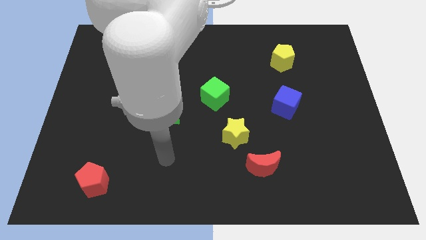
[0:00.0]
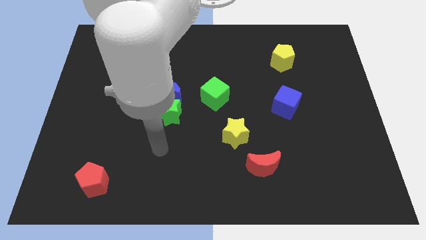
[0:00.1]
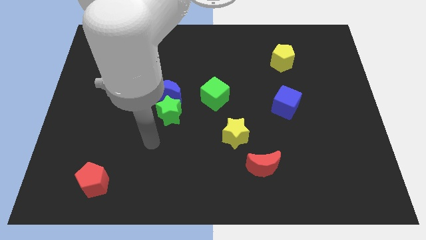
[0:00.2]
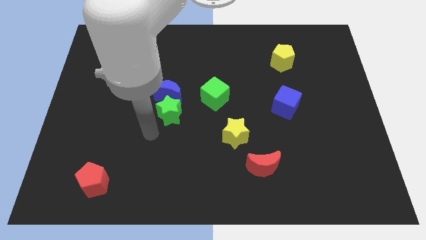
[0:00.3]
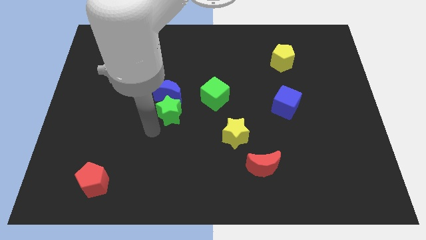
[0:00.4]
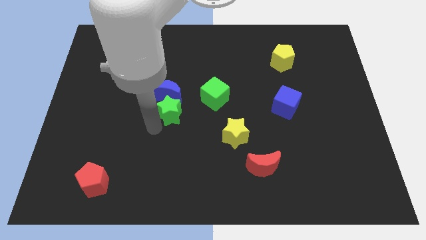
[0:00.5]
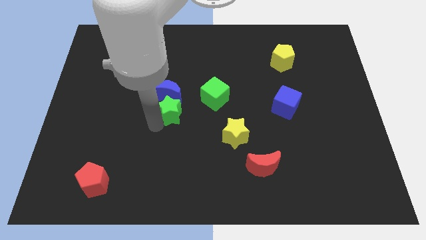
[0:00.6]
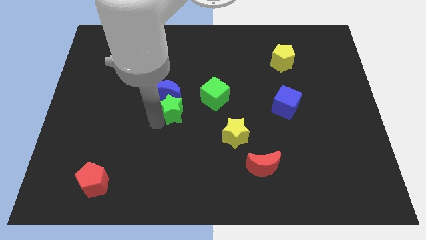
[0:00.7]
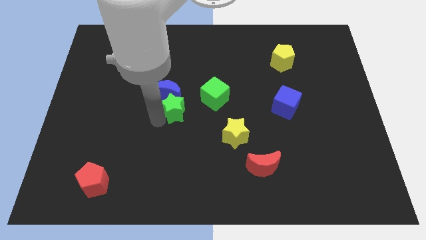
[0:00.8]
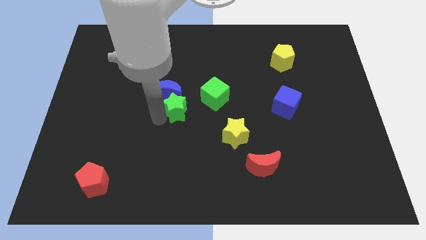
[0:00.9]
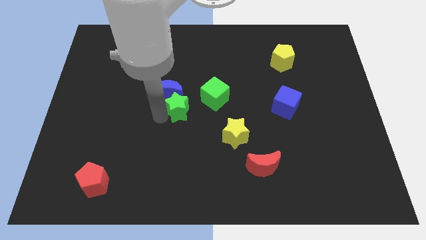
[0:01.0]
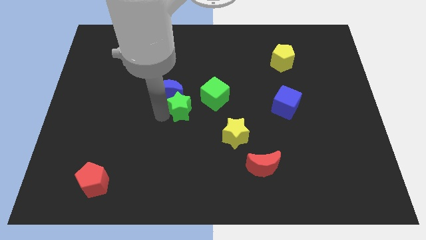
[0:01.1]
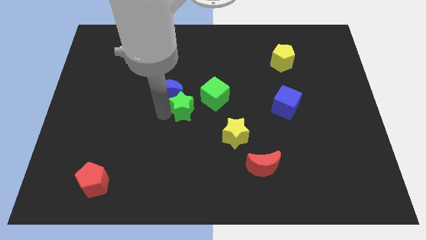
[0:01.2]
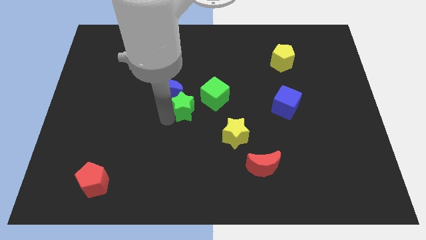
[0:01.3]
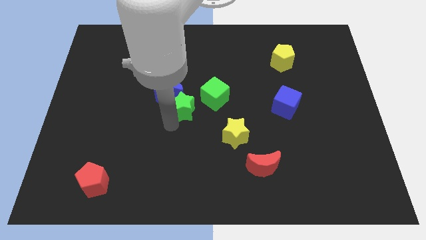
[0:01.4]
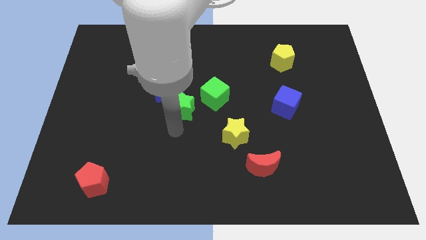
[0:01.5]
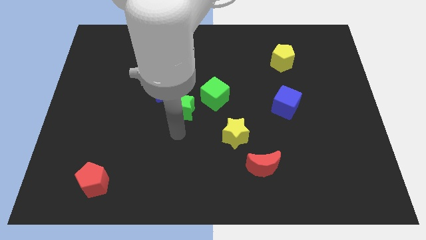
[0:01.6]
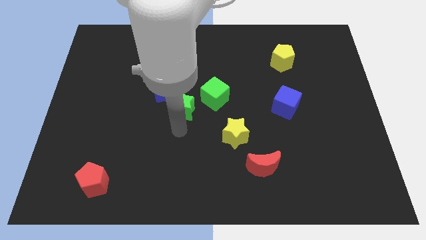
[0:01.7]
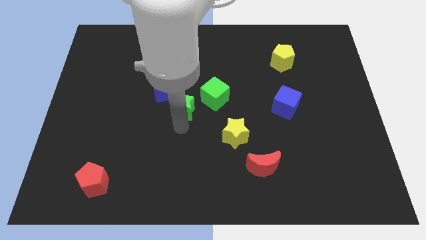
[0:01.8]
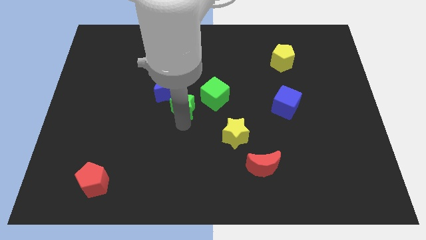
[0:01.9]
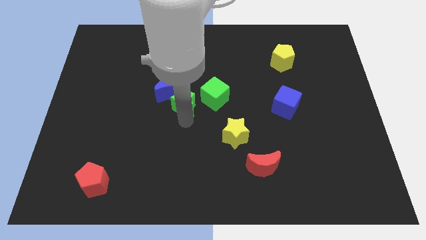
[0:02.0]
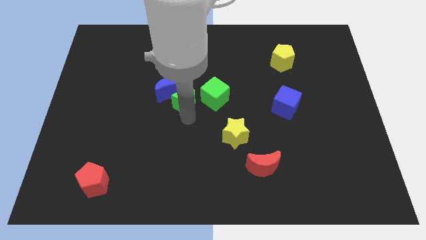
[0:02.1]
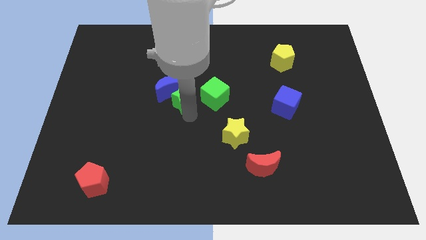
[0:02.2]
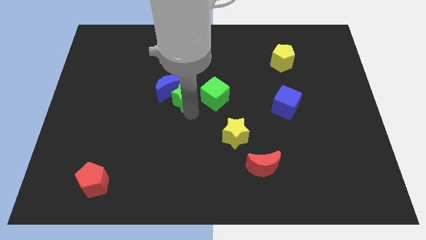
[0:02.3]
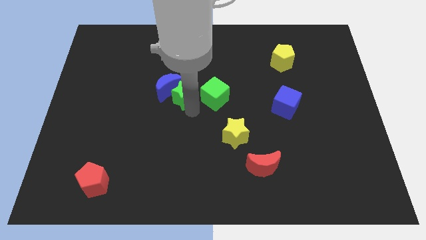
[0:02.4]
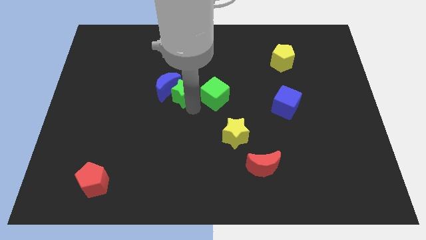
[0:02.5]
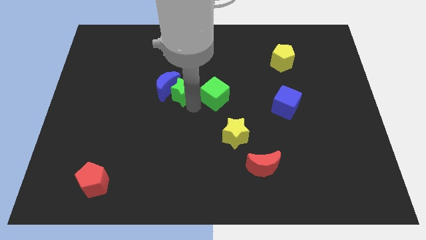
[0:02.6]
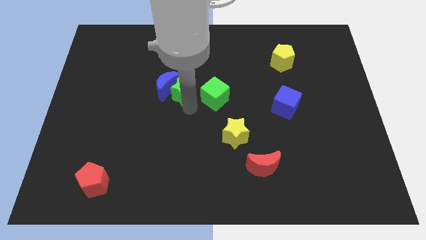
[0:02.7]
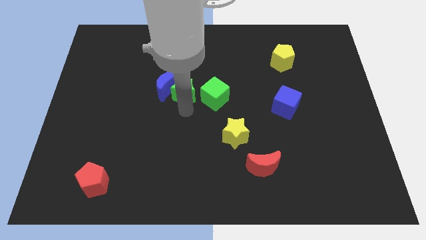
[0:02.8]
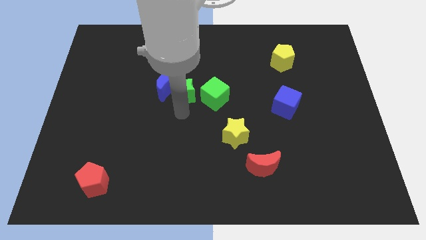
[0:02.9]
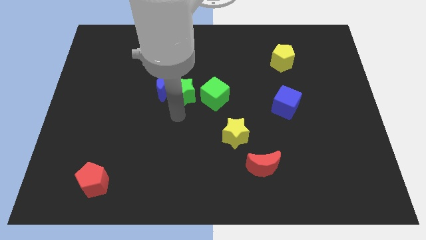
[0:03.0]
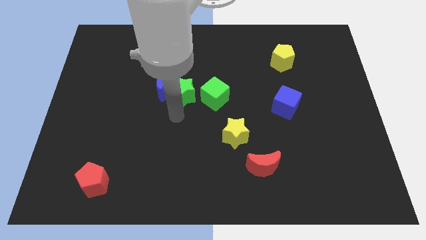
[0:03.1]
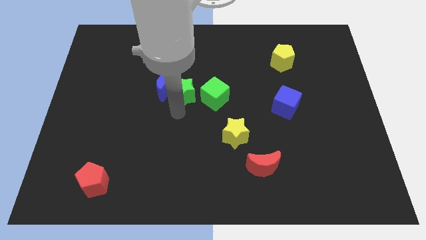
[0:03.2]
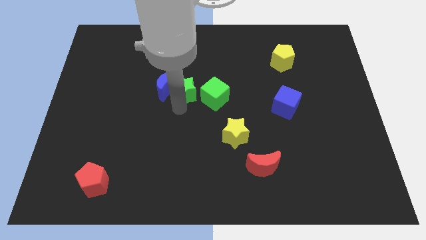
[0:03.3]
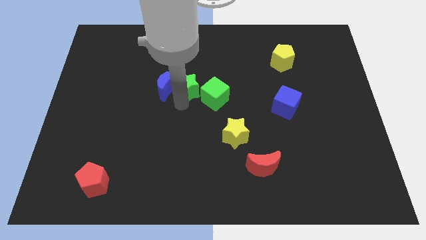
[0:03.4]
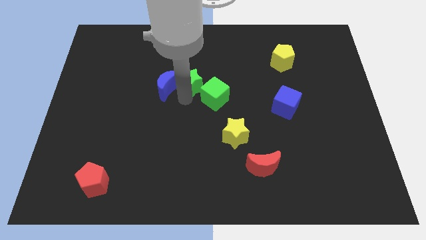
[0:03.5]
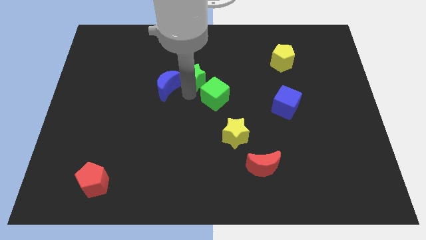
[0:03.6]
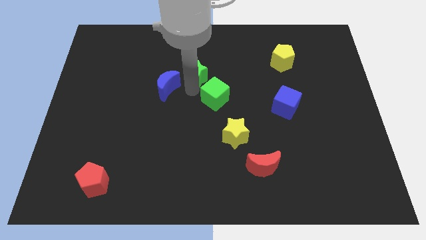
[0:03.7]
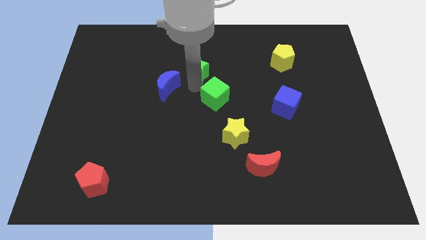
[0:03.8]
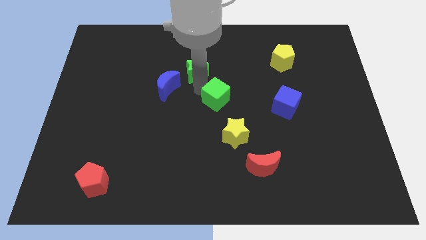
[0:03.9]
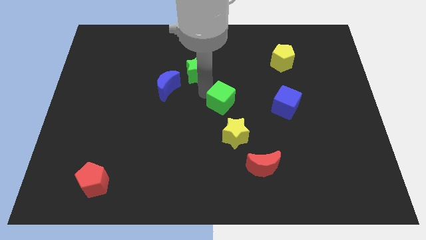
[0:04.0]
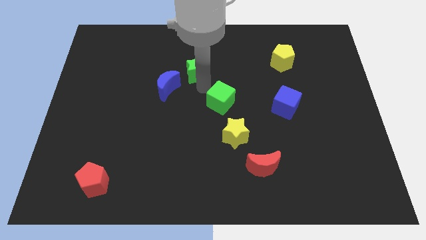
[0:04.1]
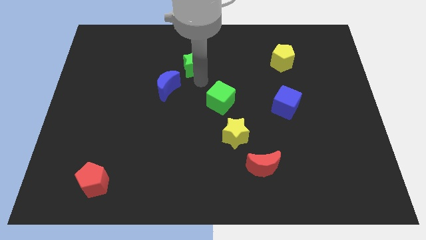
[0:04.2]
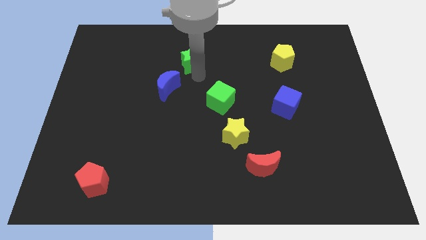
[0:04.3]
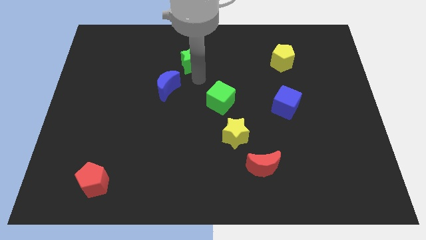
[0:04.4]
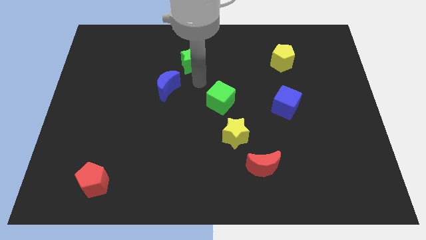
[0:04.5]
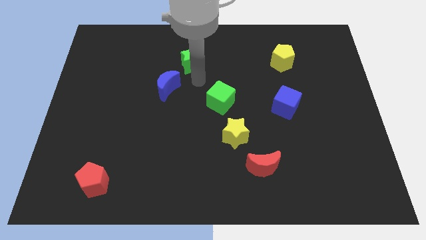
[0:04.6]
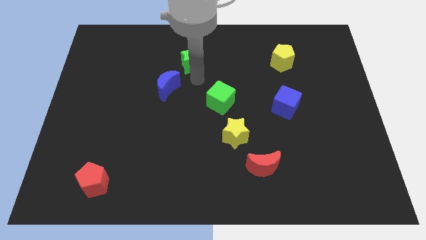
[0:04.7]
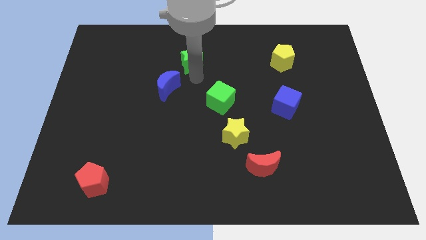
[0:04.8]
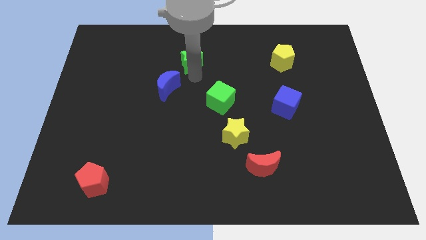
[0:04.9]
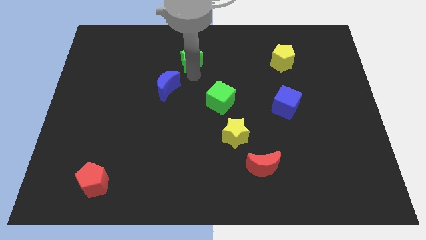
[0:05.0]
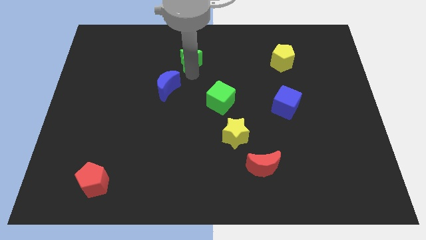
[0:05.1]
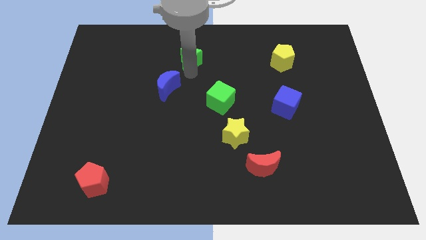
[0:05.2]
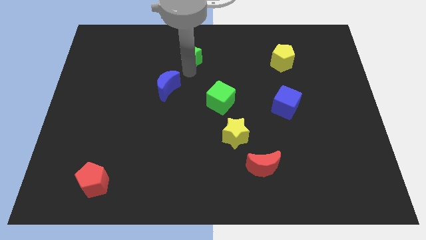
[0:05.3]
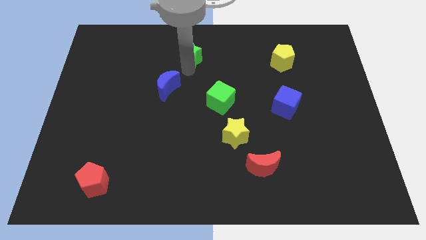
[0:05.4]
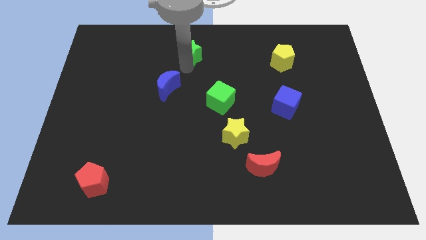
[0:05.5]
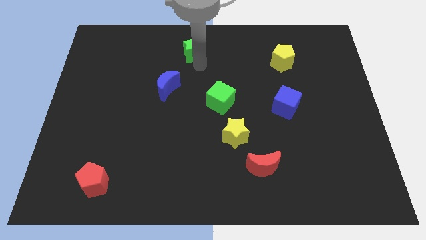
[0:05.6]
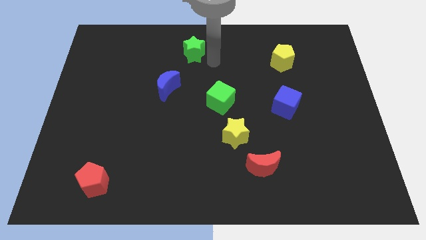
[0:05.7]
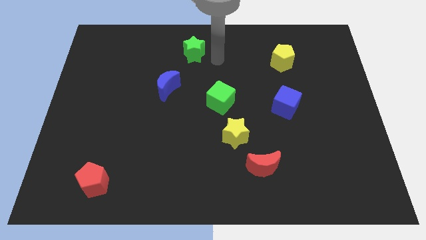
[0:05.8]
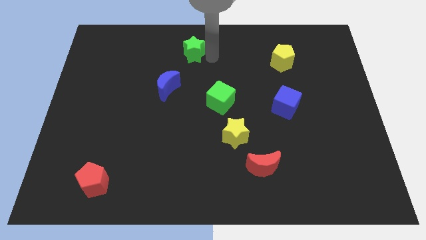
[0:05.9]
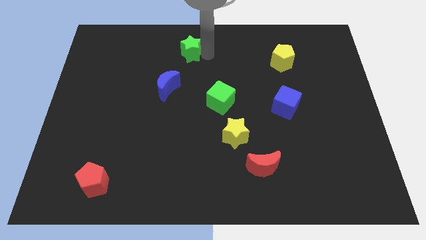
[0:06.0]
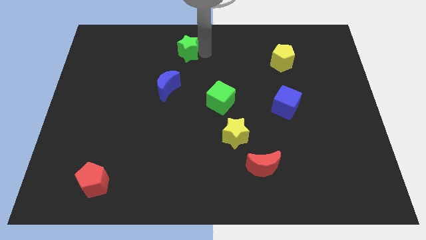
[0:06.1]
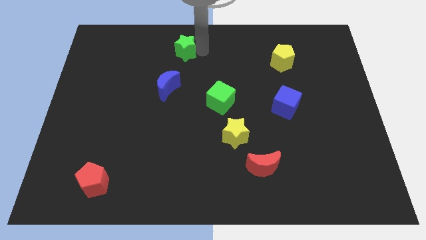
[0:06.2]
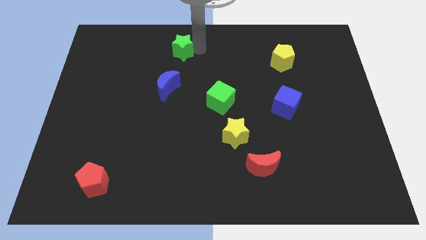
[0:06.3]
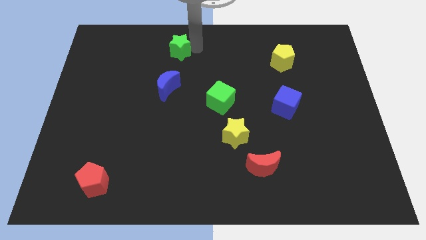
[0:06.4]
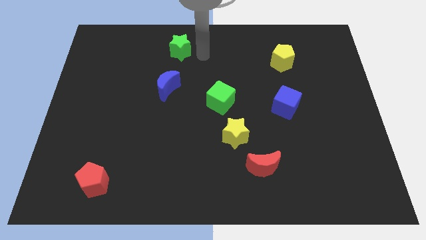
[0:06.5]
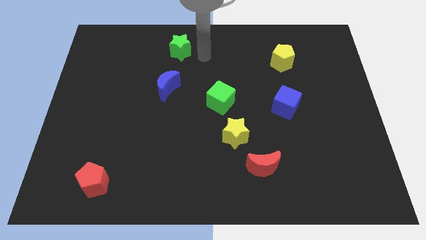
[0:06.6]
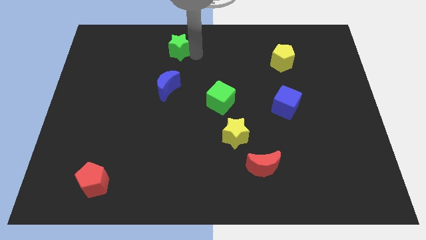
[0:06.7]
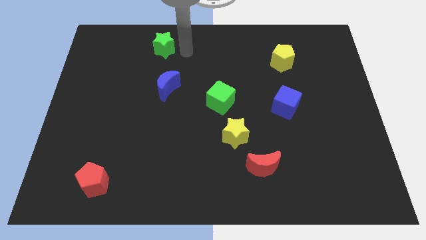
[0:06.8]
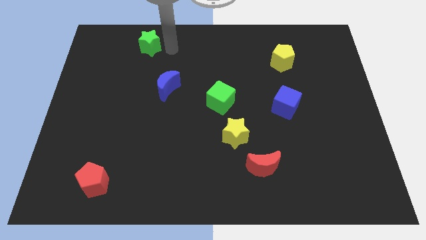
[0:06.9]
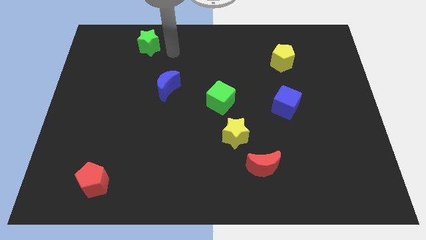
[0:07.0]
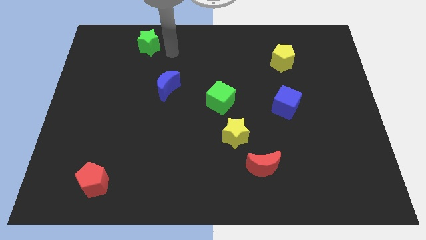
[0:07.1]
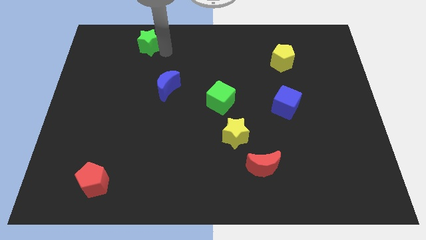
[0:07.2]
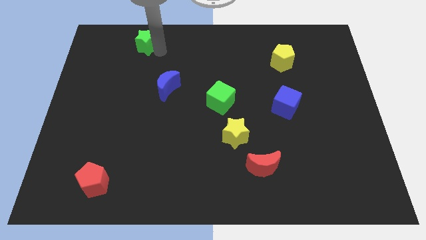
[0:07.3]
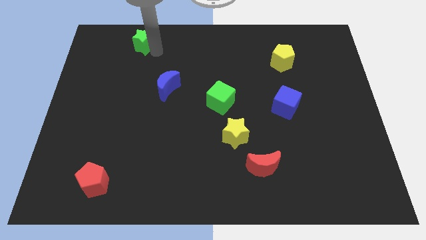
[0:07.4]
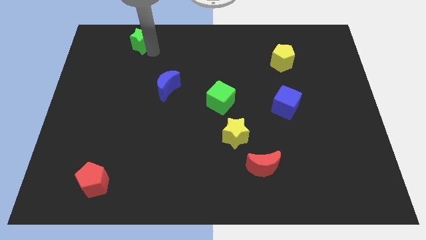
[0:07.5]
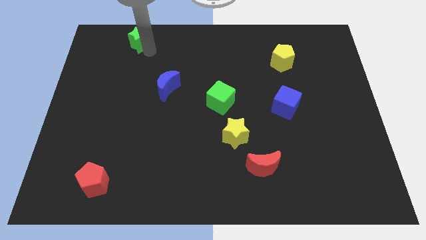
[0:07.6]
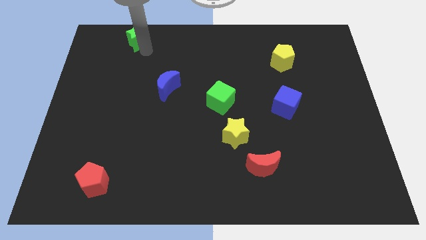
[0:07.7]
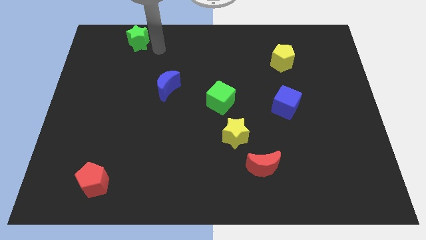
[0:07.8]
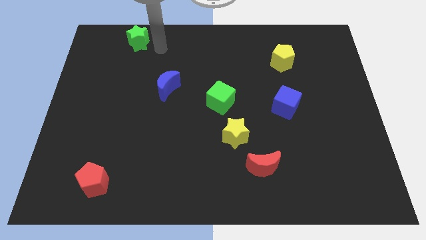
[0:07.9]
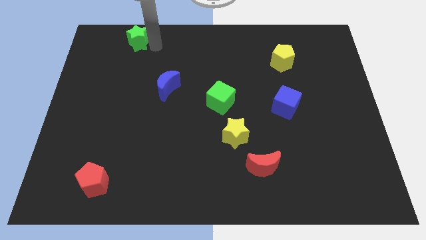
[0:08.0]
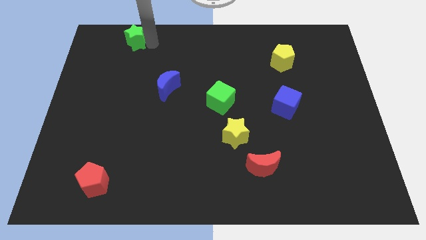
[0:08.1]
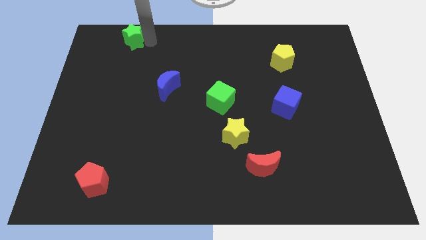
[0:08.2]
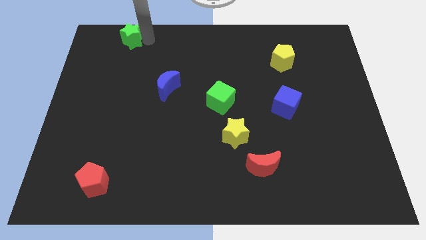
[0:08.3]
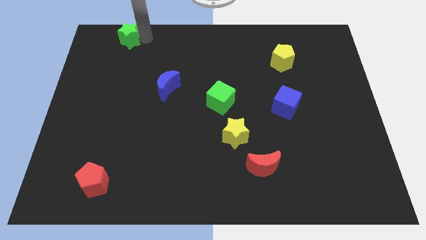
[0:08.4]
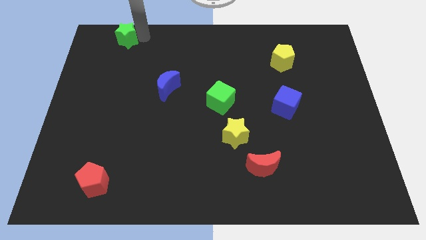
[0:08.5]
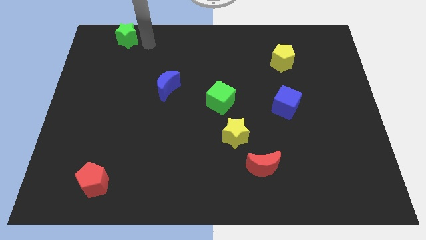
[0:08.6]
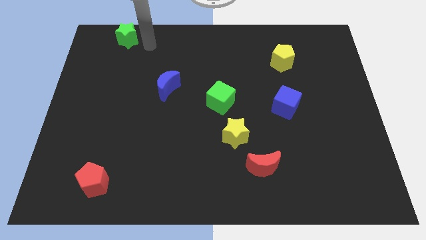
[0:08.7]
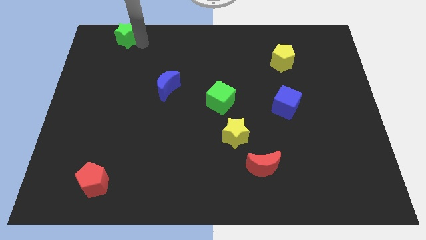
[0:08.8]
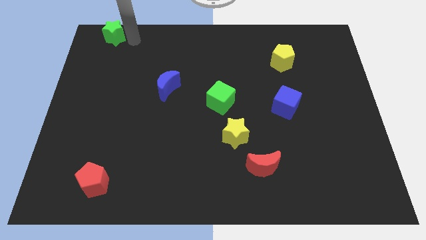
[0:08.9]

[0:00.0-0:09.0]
push the green star to the top left of the board
